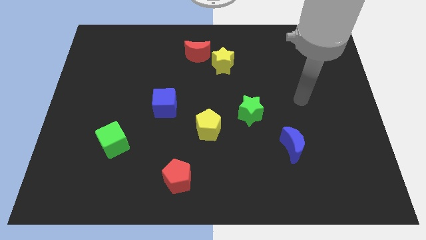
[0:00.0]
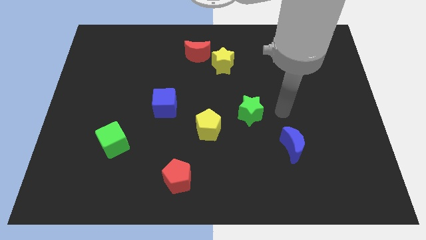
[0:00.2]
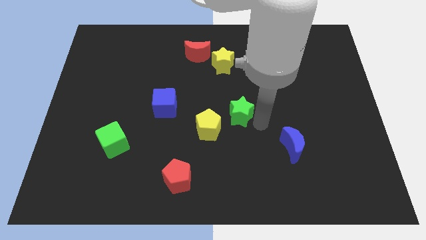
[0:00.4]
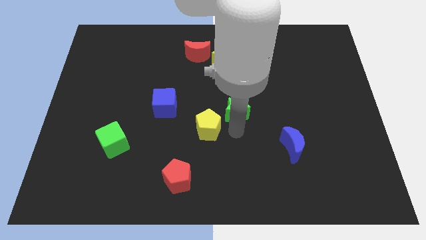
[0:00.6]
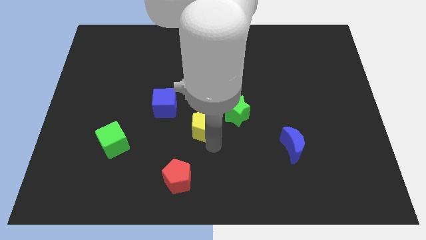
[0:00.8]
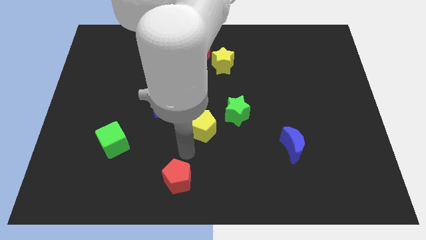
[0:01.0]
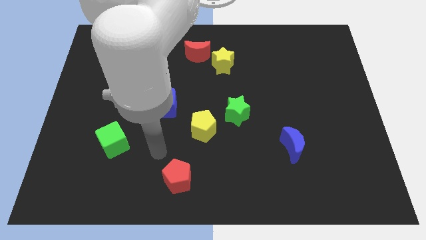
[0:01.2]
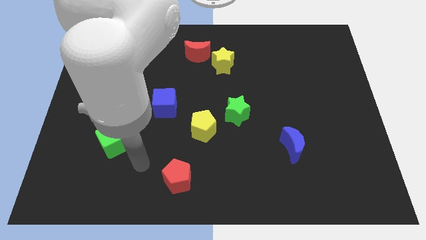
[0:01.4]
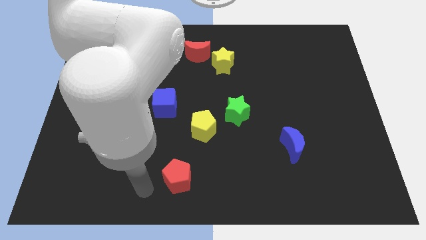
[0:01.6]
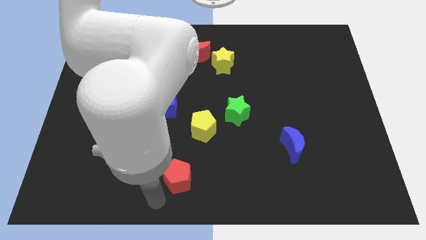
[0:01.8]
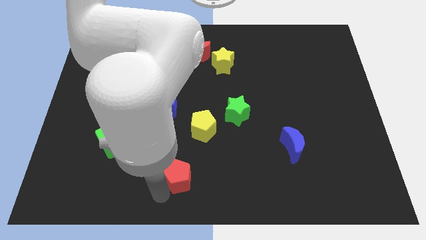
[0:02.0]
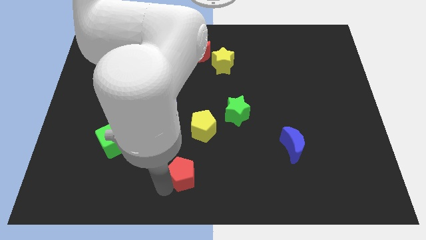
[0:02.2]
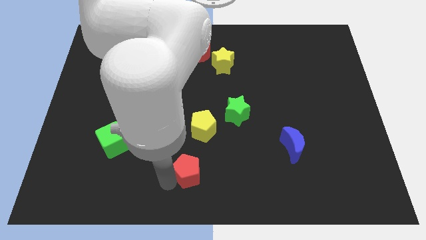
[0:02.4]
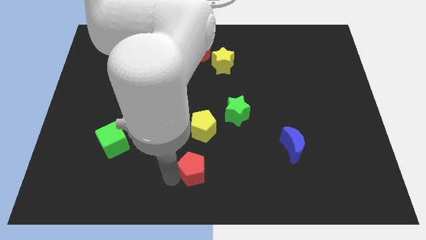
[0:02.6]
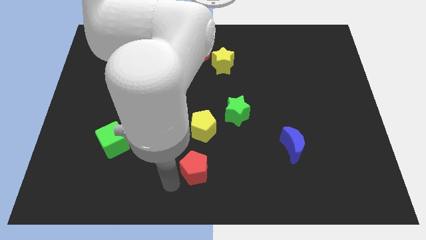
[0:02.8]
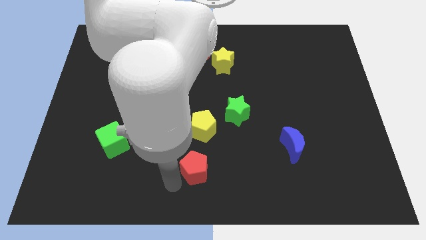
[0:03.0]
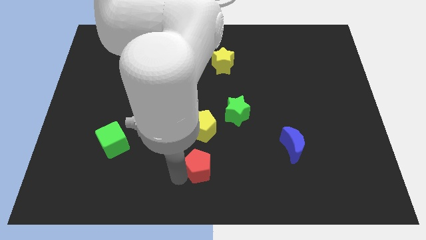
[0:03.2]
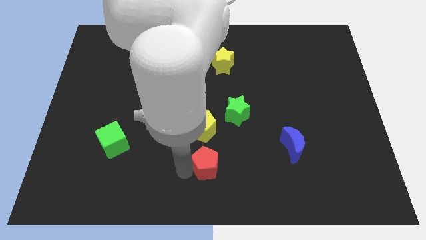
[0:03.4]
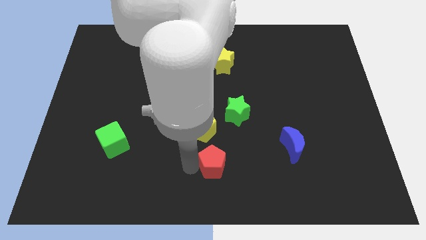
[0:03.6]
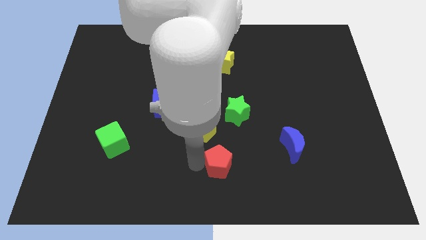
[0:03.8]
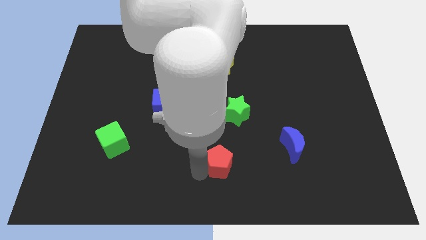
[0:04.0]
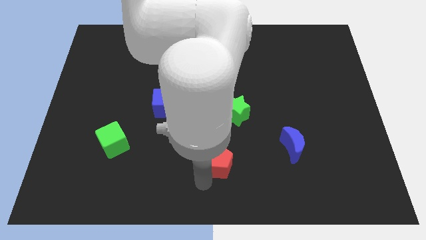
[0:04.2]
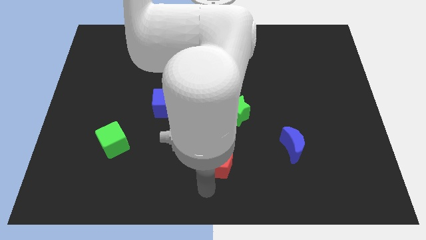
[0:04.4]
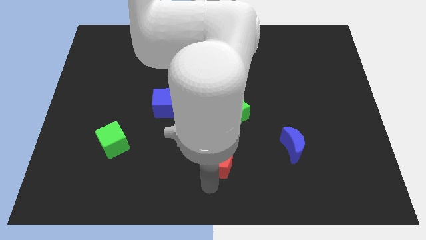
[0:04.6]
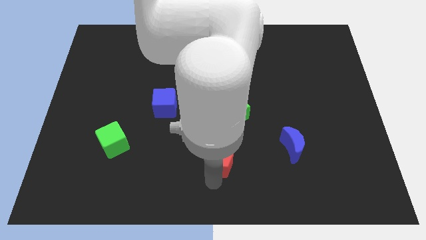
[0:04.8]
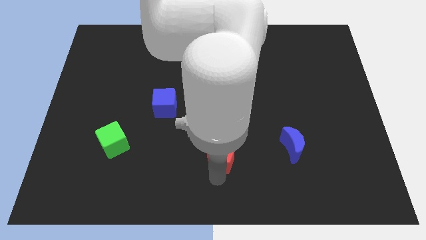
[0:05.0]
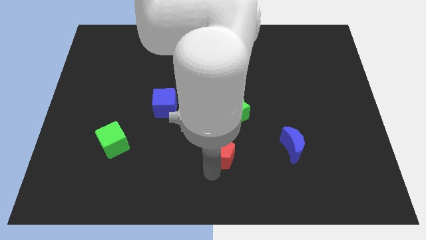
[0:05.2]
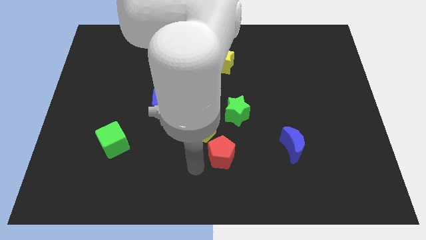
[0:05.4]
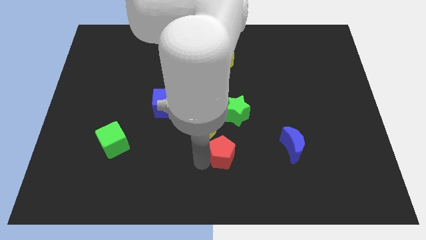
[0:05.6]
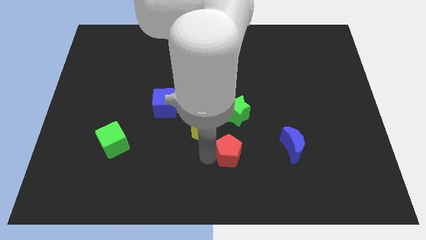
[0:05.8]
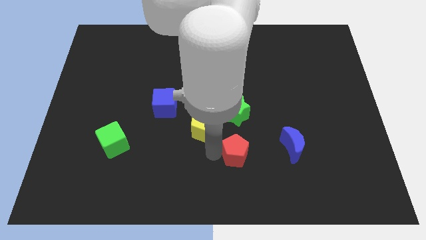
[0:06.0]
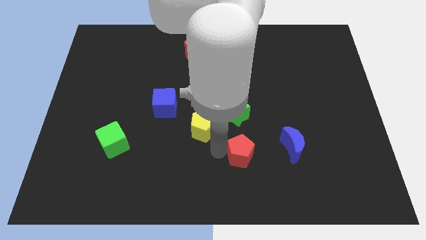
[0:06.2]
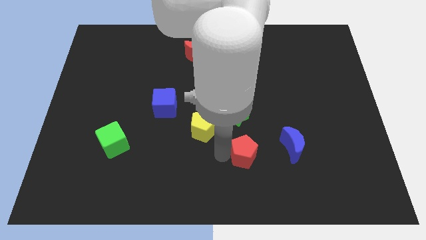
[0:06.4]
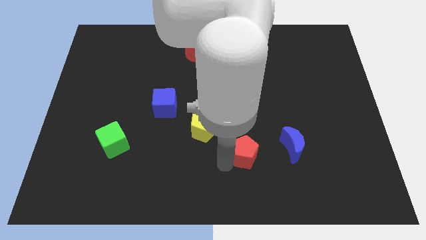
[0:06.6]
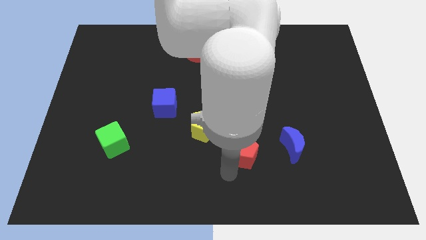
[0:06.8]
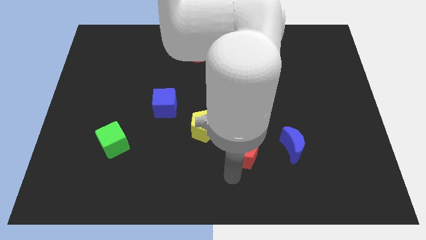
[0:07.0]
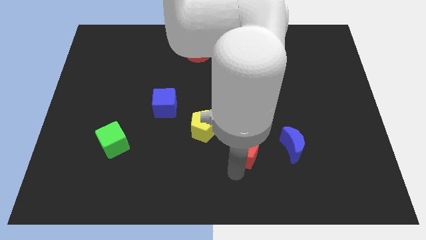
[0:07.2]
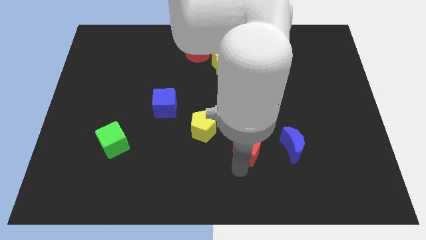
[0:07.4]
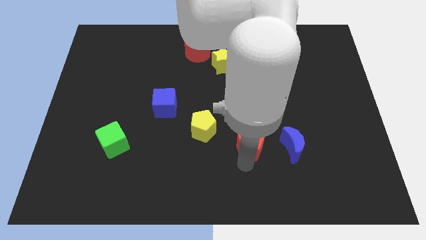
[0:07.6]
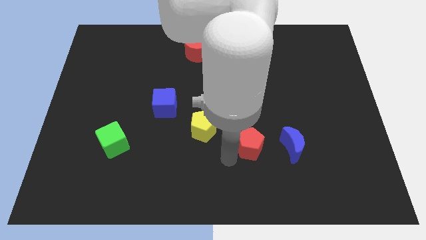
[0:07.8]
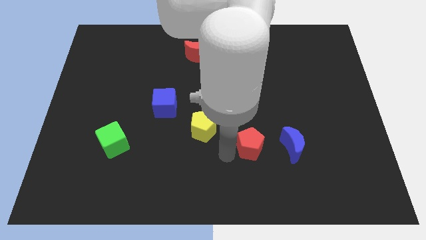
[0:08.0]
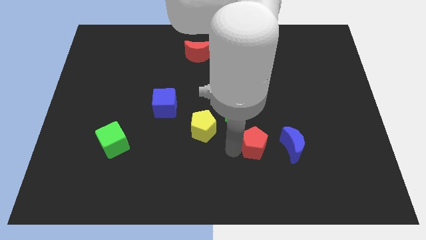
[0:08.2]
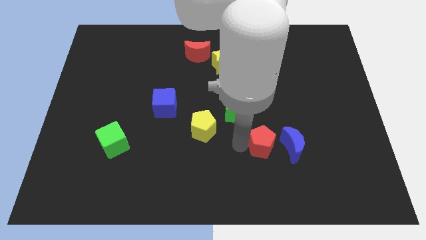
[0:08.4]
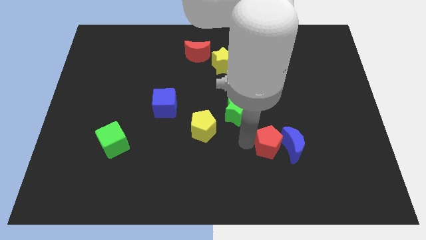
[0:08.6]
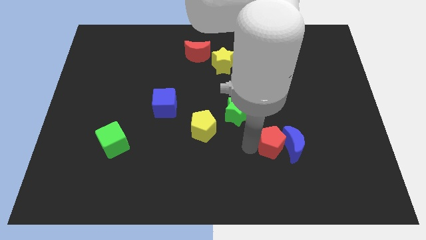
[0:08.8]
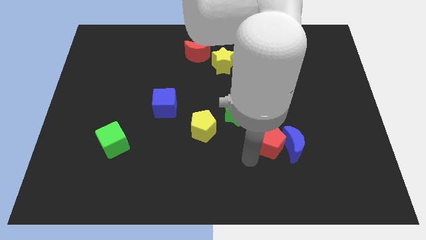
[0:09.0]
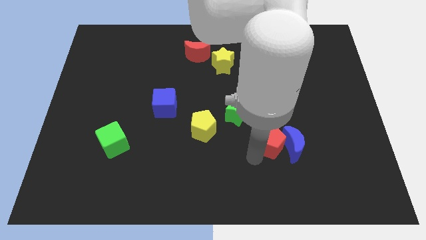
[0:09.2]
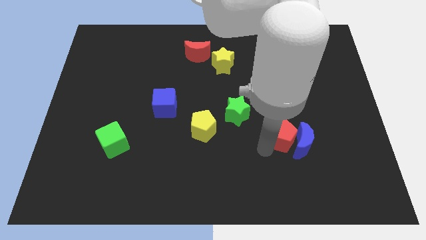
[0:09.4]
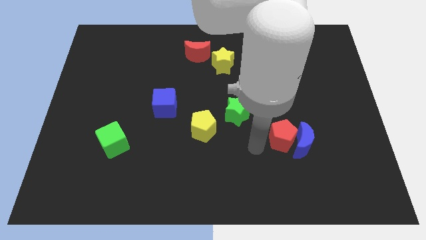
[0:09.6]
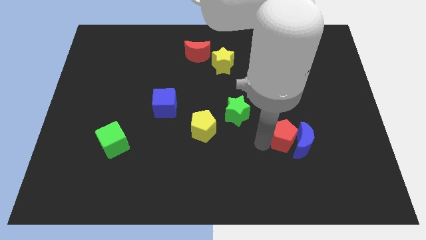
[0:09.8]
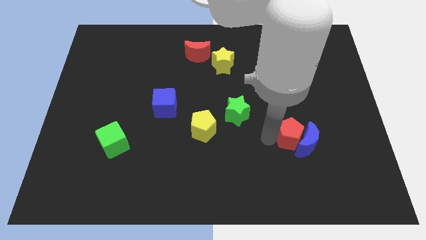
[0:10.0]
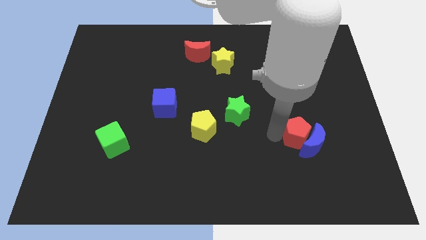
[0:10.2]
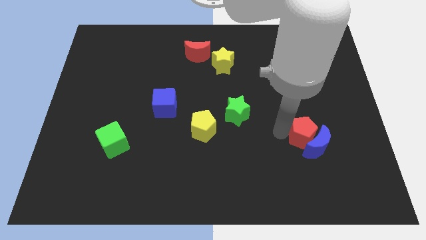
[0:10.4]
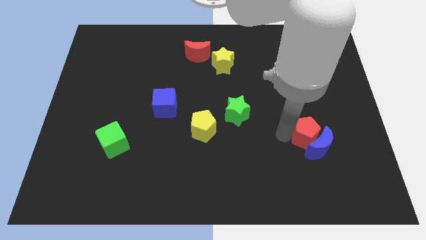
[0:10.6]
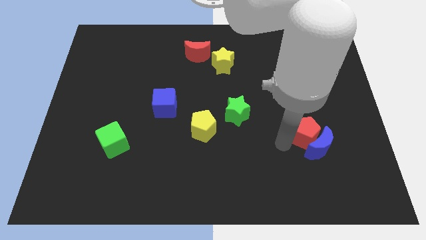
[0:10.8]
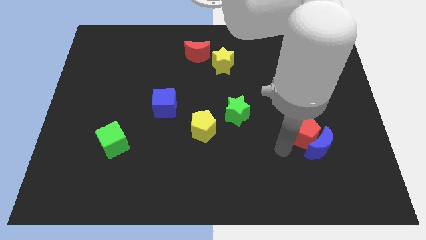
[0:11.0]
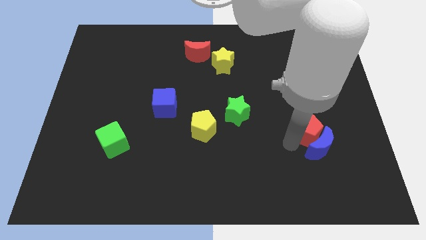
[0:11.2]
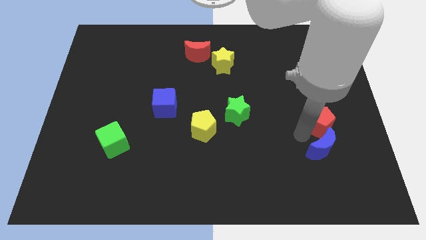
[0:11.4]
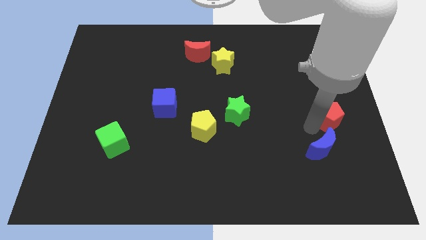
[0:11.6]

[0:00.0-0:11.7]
push the red pentagon to the center right
